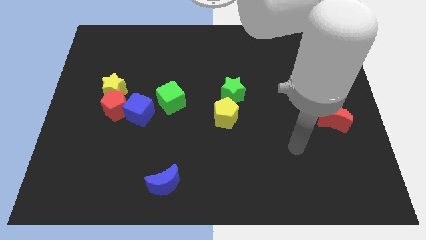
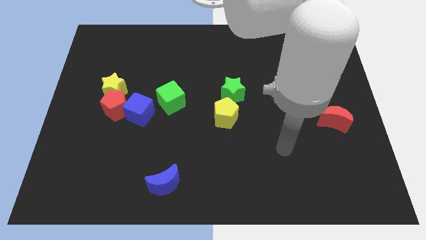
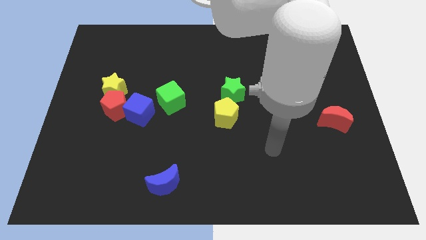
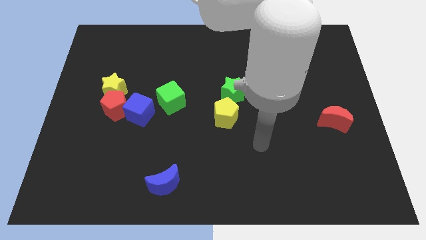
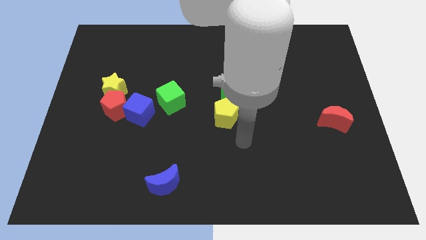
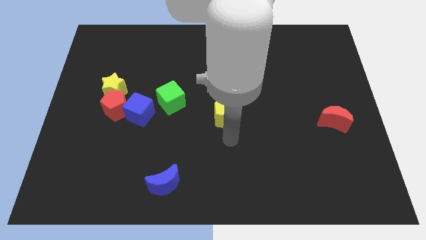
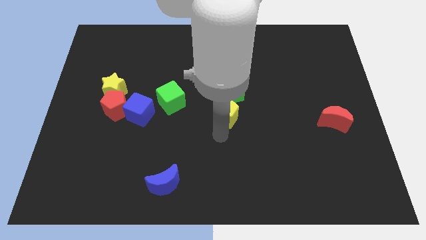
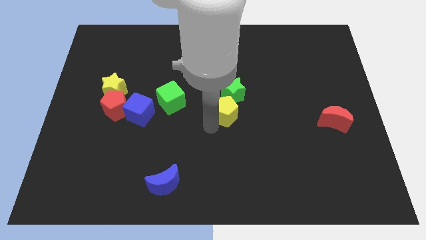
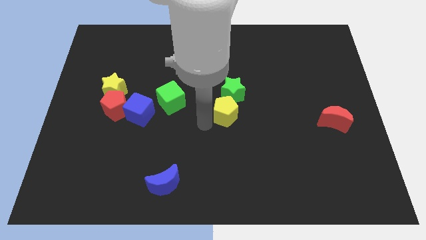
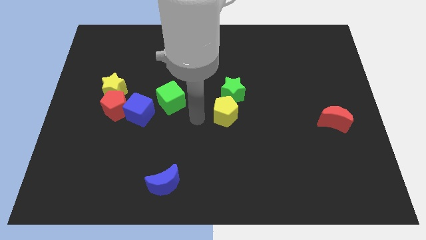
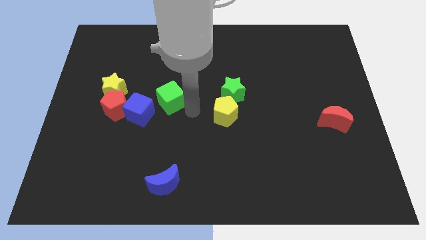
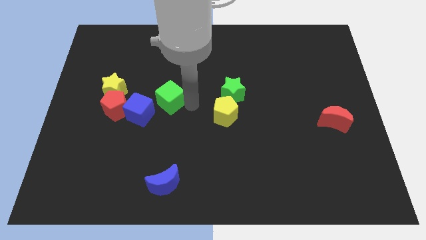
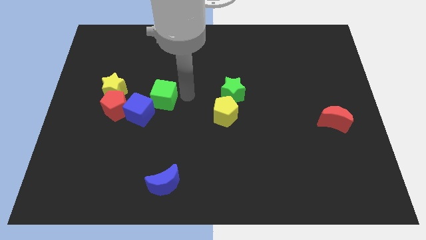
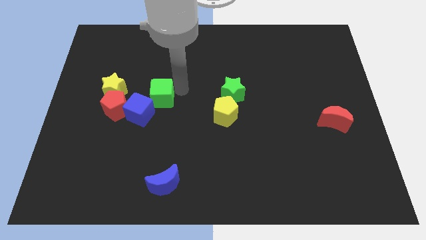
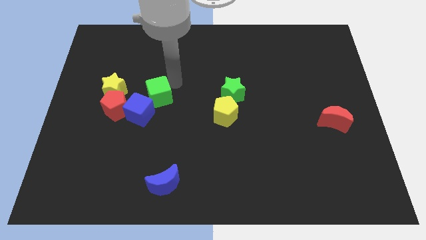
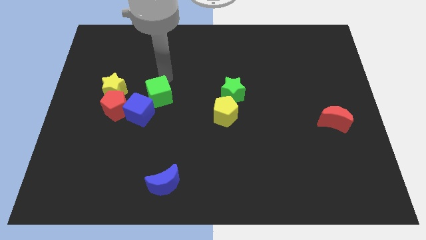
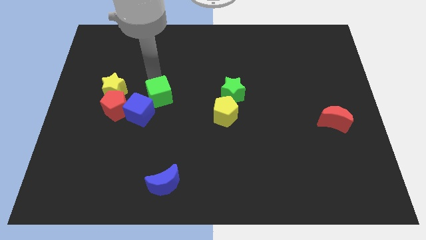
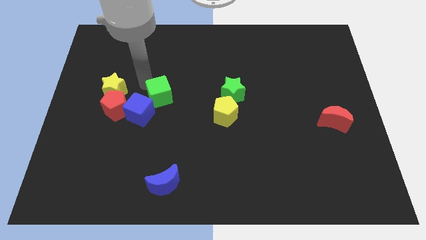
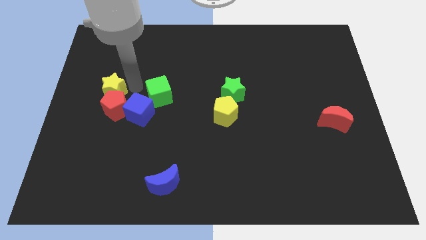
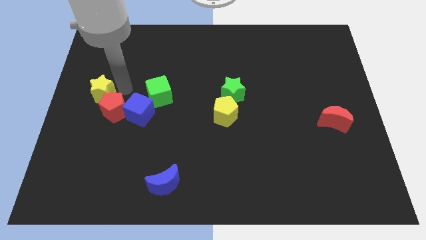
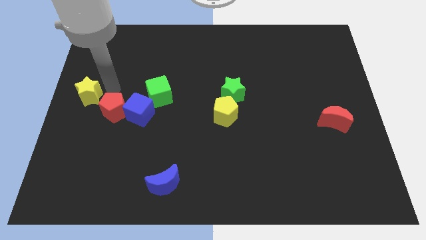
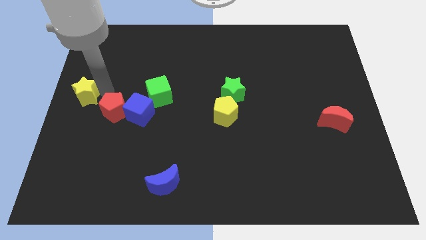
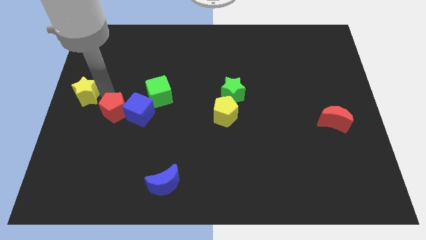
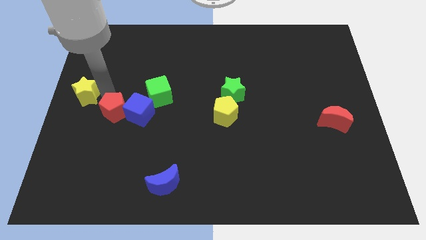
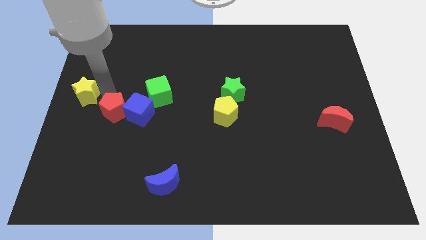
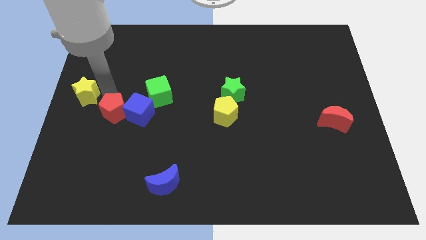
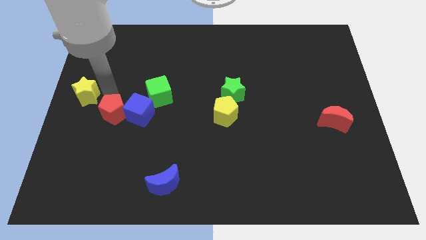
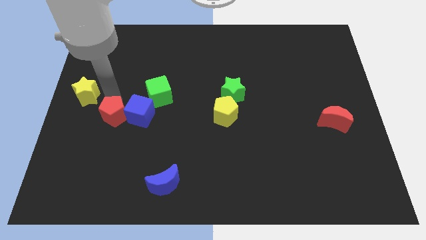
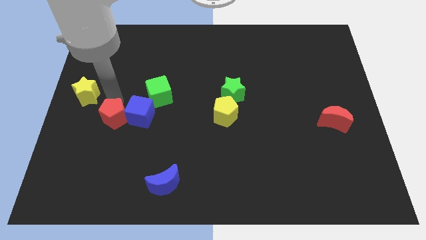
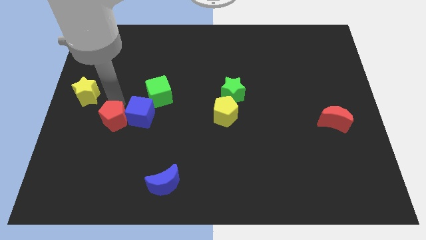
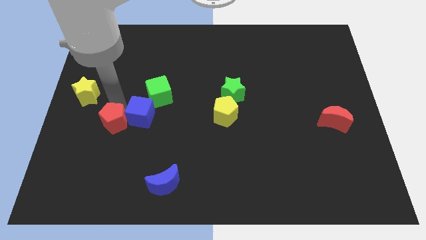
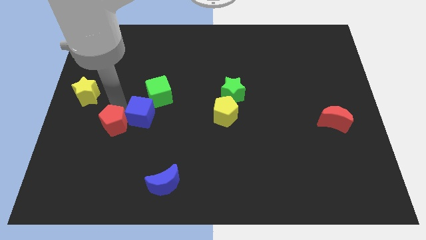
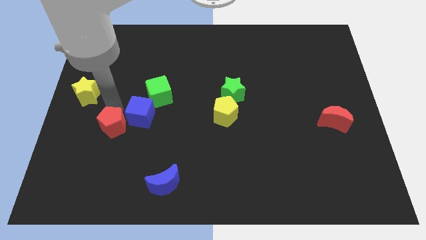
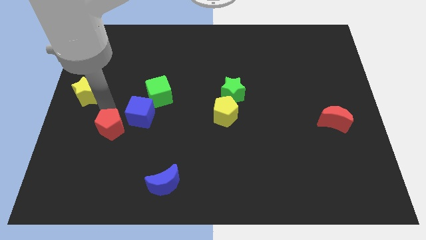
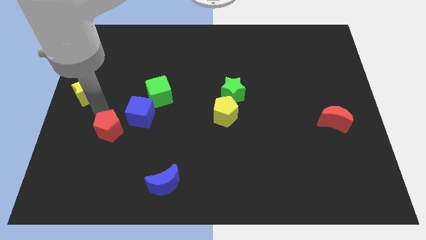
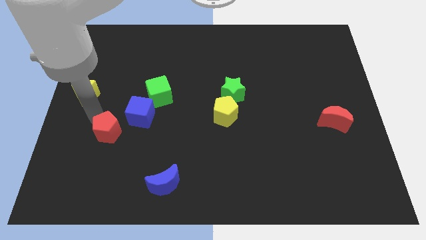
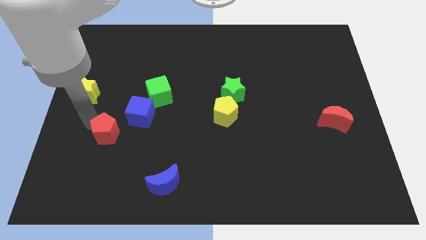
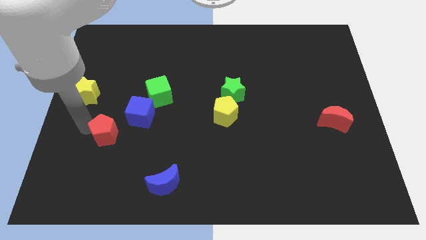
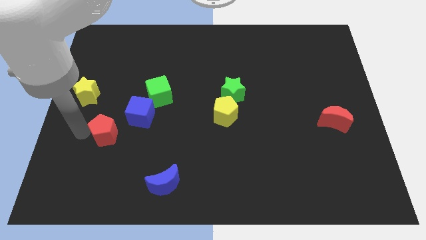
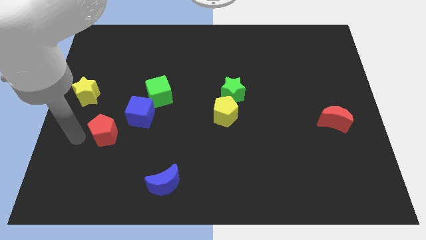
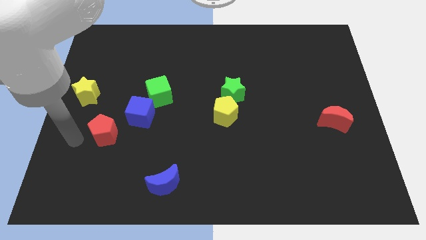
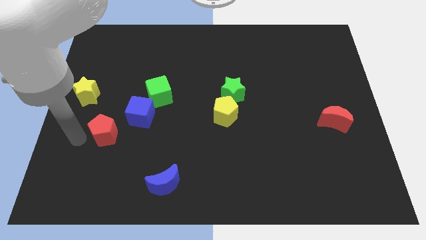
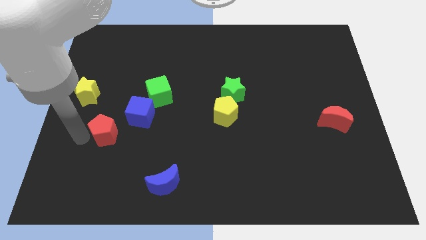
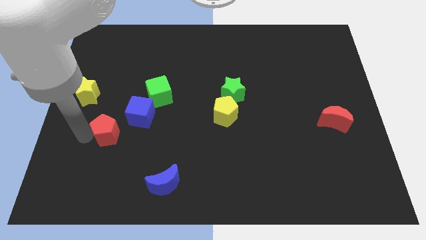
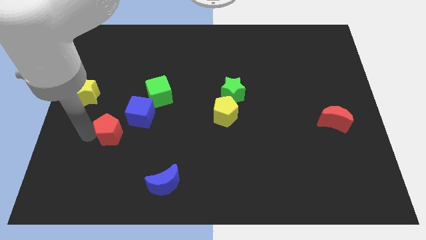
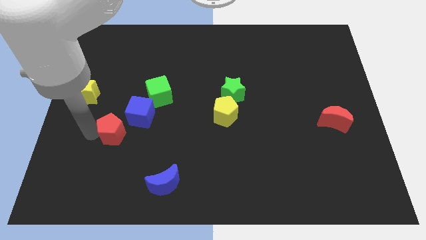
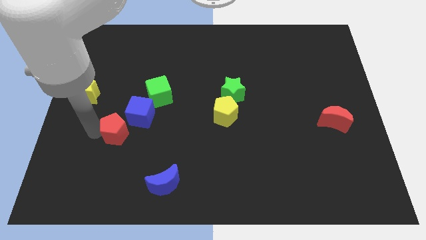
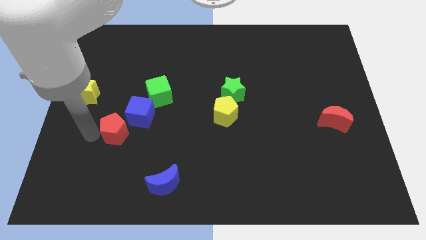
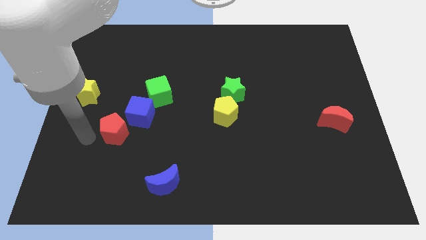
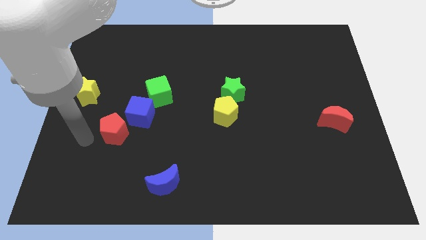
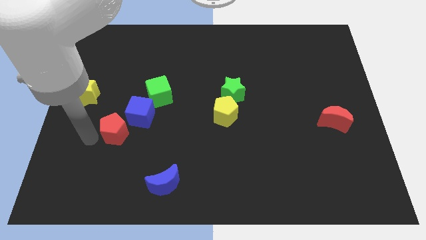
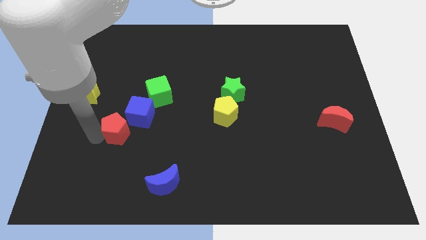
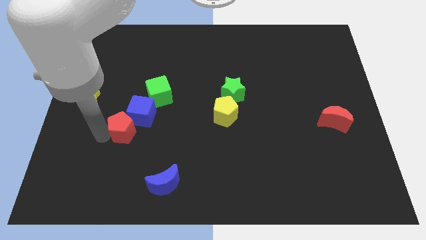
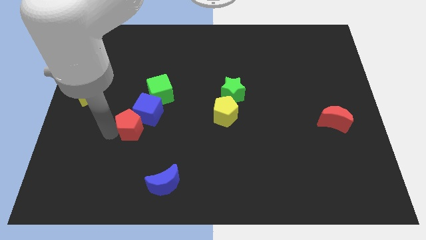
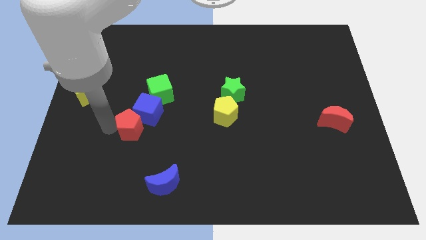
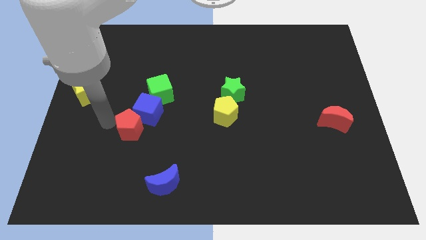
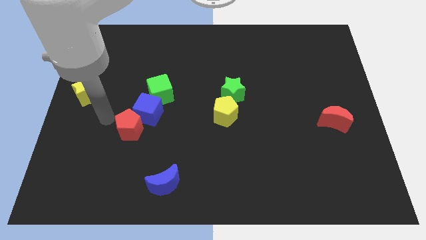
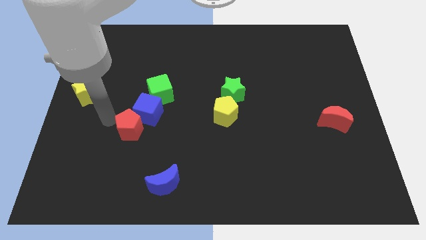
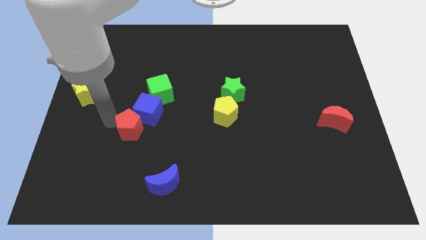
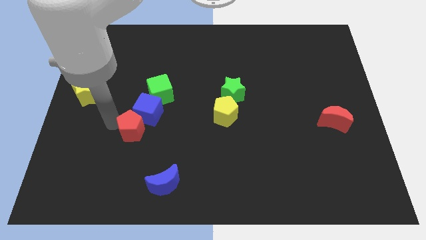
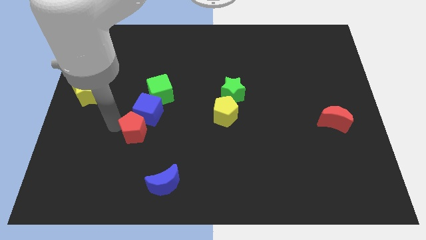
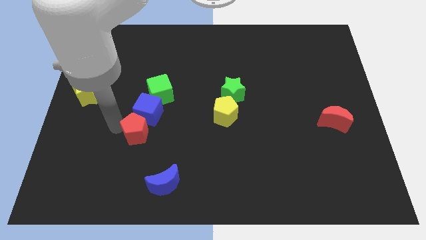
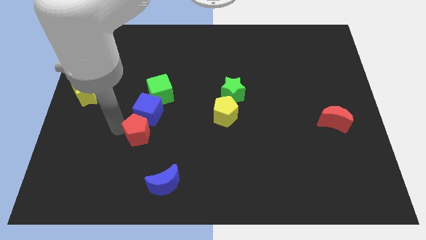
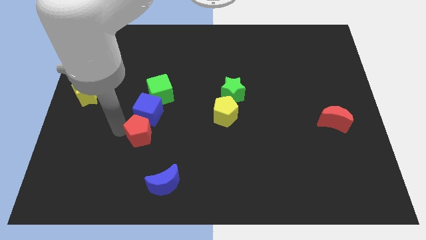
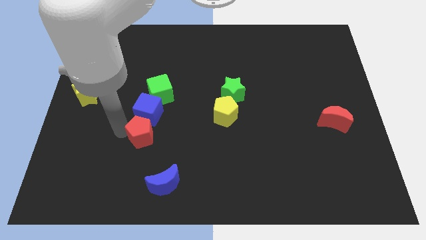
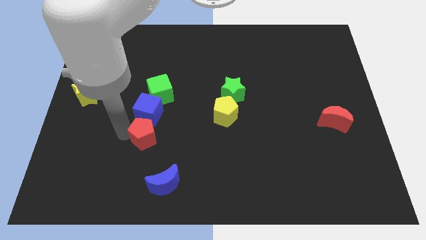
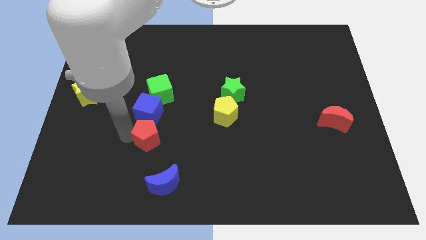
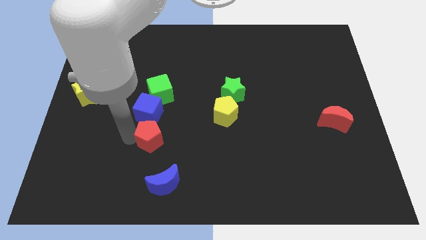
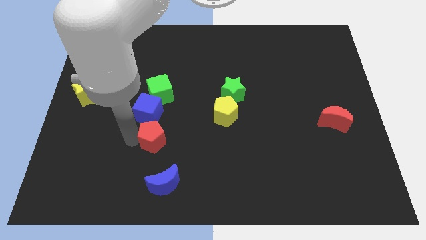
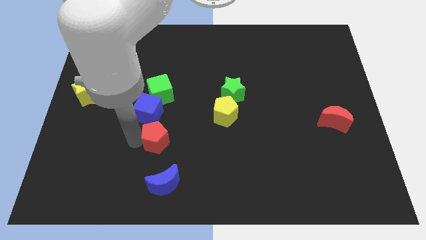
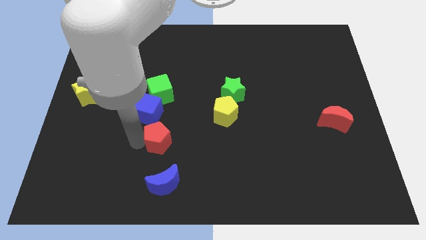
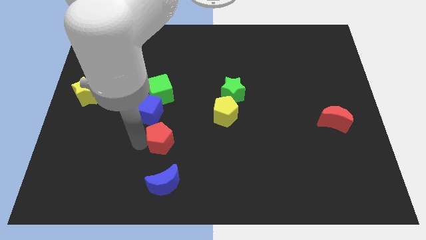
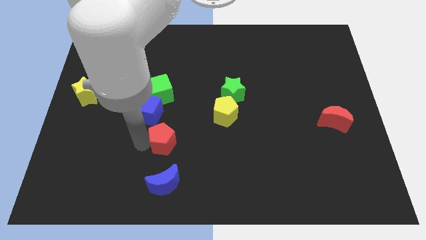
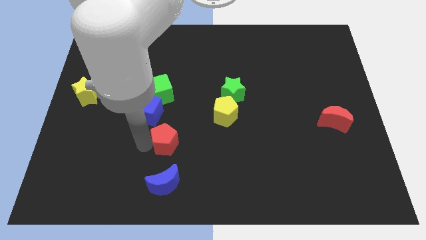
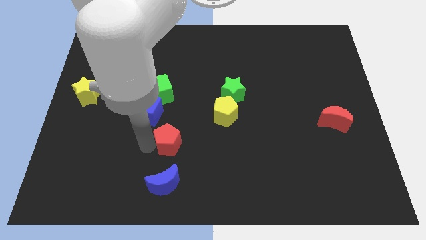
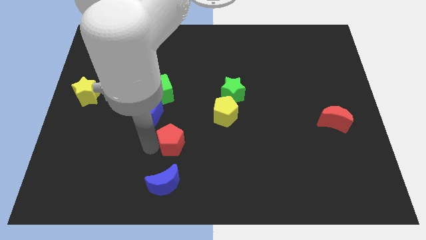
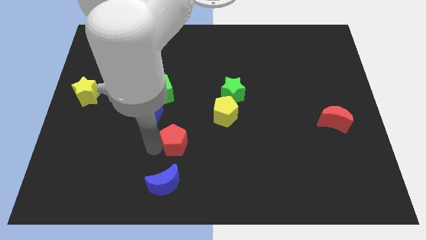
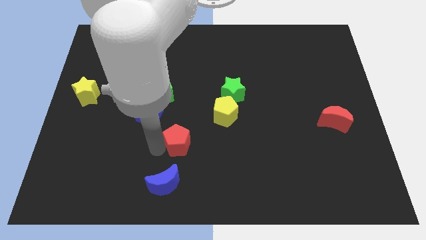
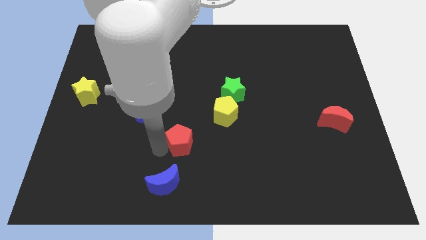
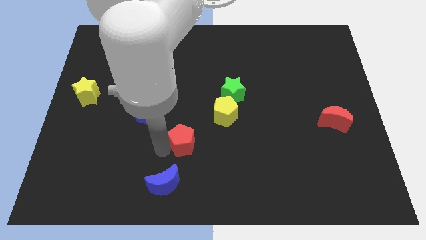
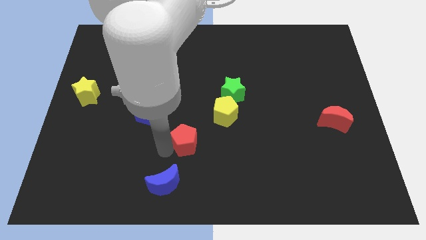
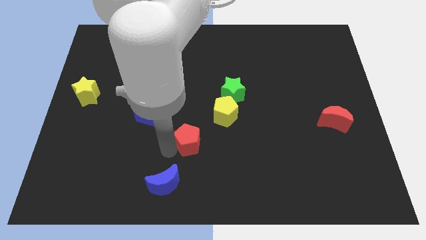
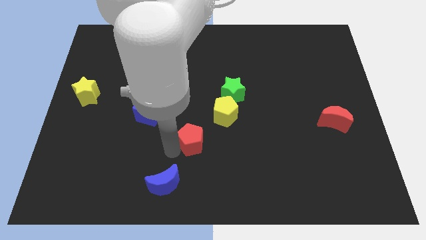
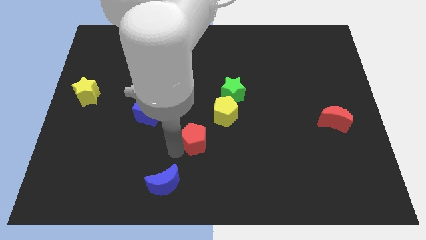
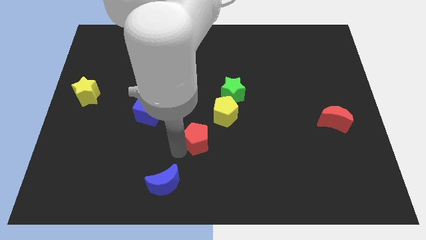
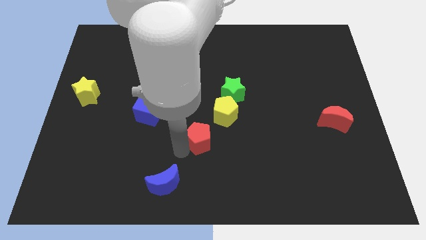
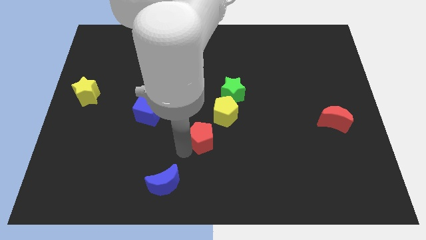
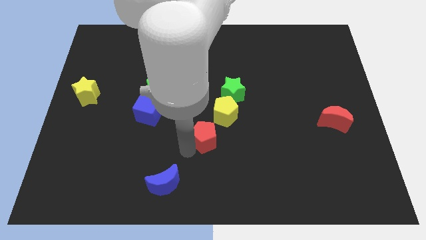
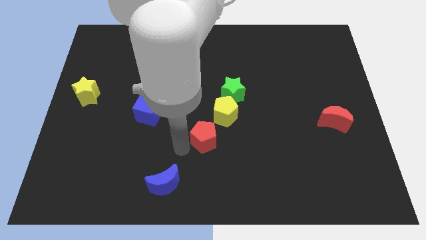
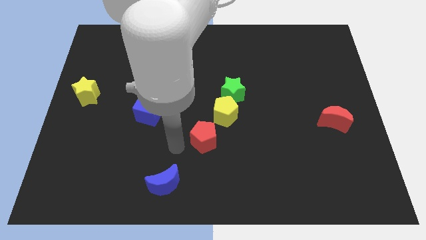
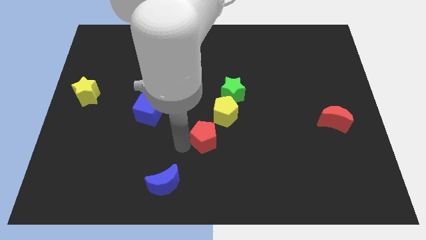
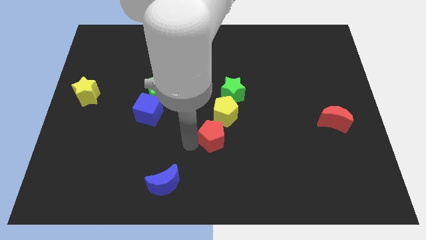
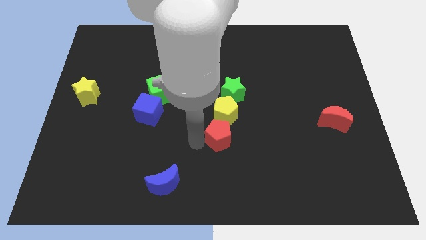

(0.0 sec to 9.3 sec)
push the red pentagon to the right
